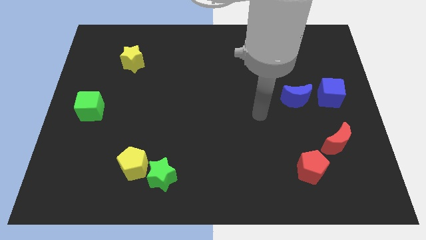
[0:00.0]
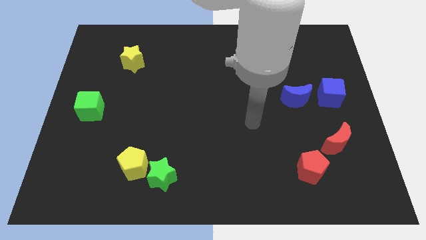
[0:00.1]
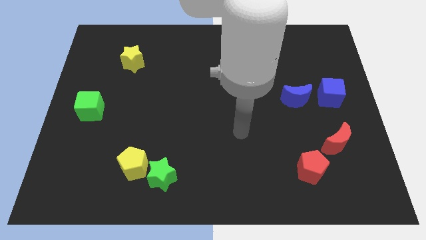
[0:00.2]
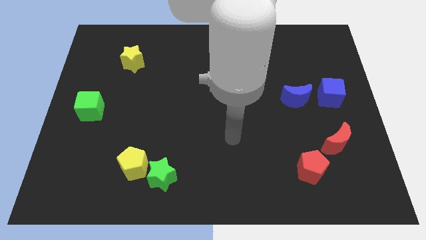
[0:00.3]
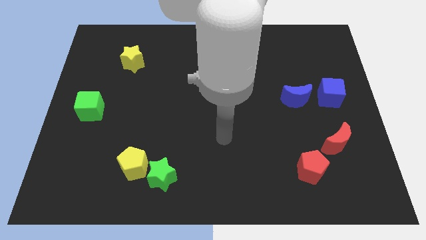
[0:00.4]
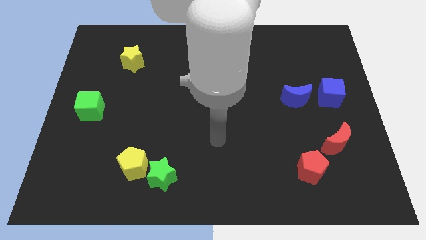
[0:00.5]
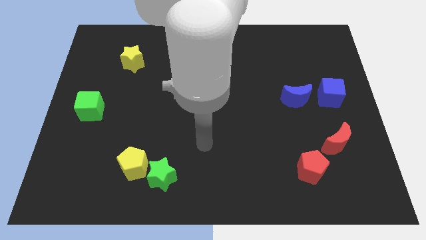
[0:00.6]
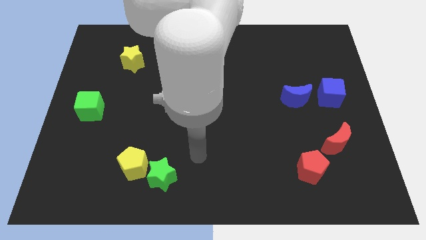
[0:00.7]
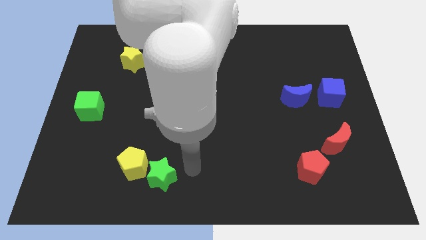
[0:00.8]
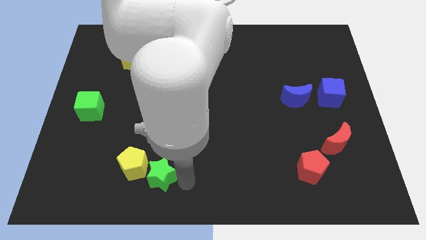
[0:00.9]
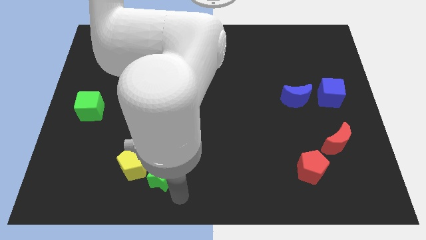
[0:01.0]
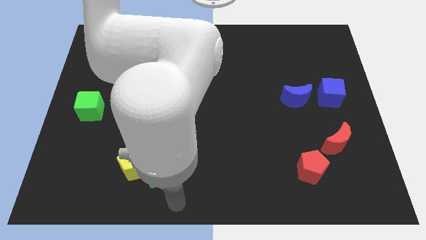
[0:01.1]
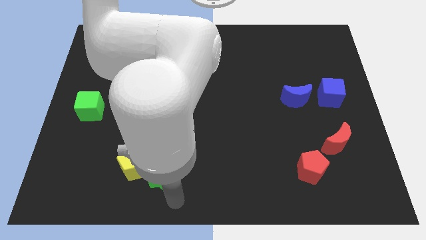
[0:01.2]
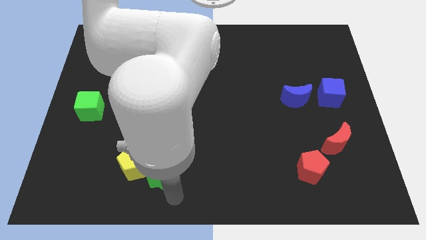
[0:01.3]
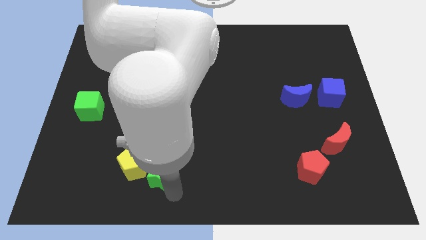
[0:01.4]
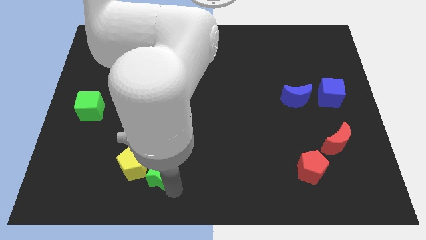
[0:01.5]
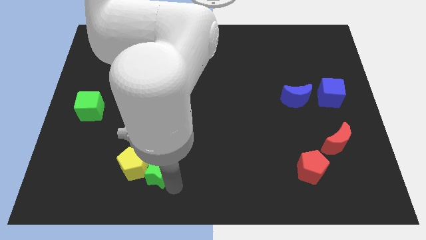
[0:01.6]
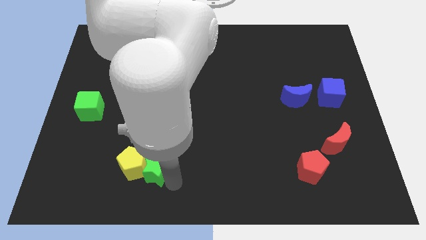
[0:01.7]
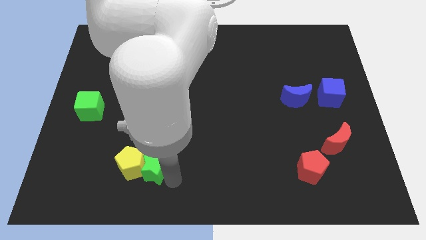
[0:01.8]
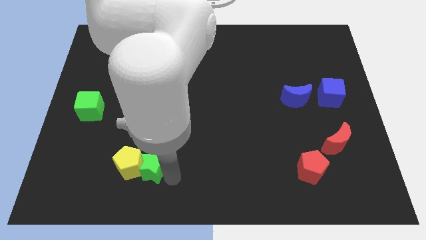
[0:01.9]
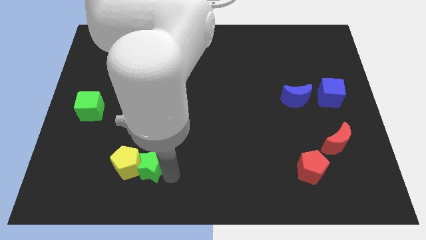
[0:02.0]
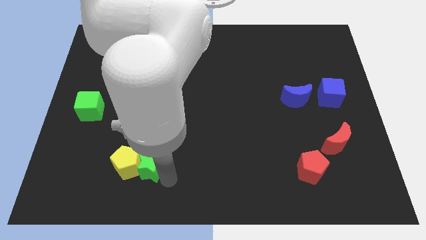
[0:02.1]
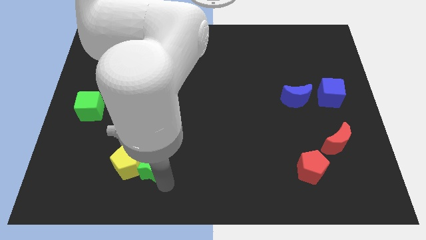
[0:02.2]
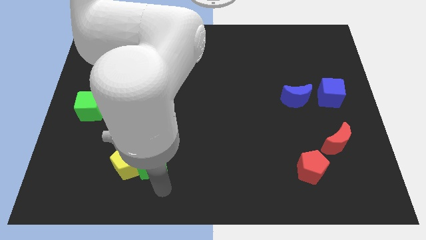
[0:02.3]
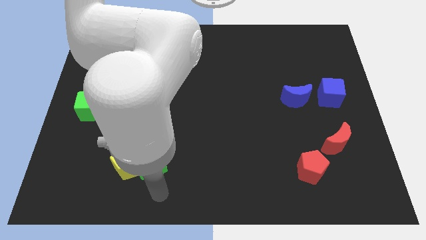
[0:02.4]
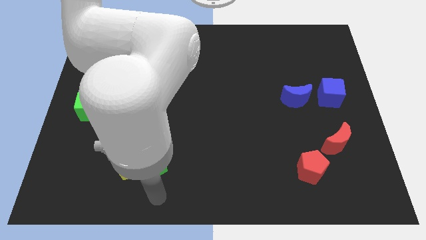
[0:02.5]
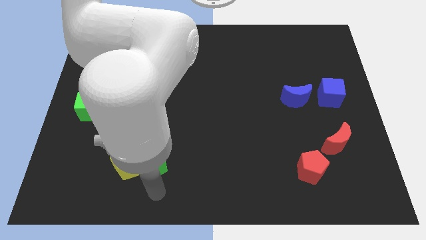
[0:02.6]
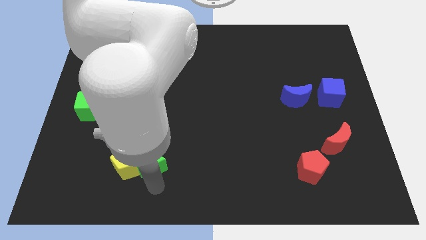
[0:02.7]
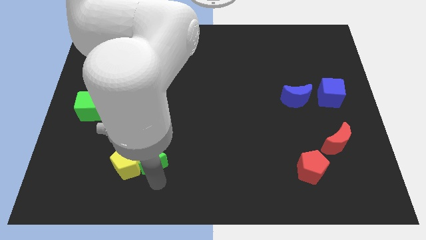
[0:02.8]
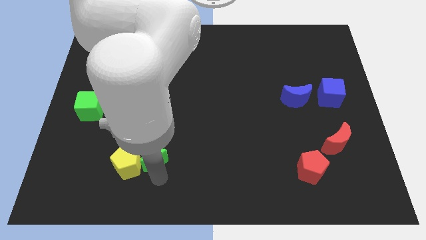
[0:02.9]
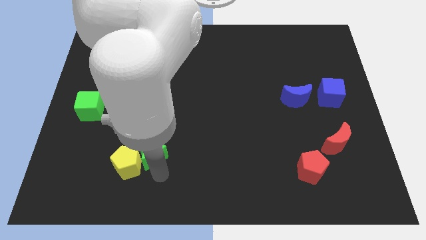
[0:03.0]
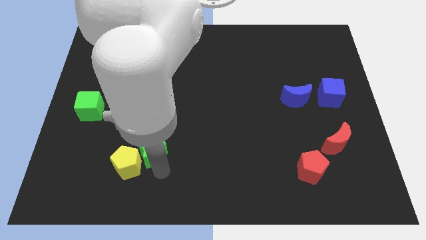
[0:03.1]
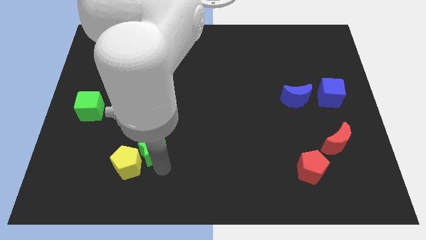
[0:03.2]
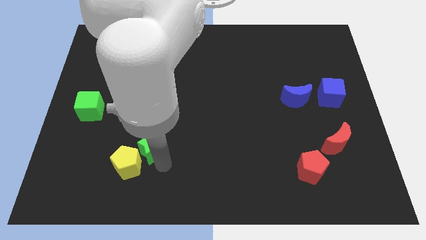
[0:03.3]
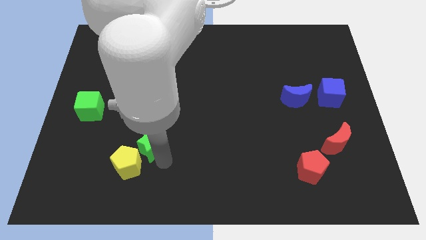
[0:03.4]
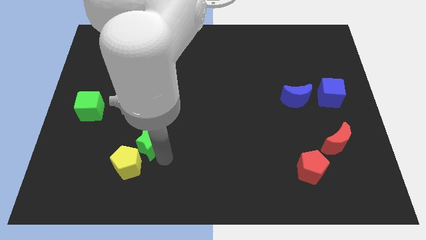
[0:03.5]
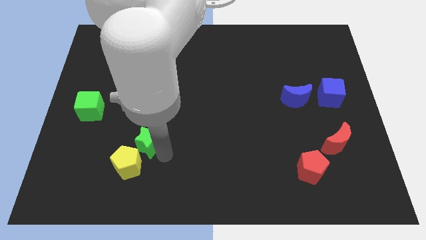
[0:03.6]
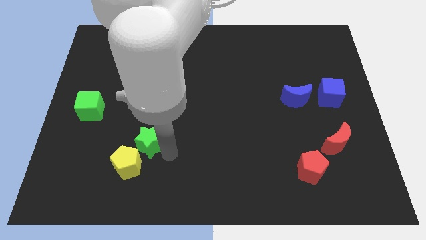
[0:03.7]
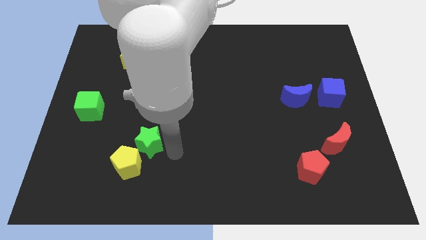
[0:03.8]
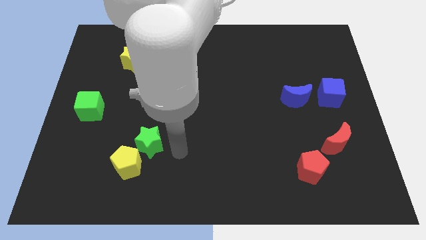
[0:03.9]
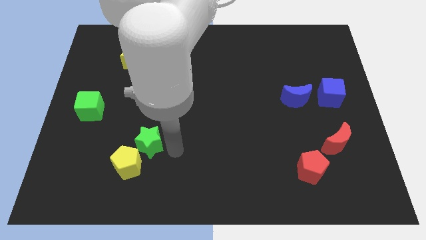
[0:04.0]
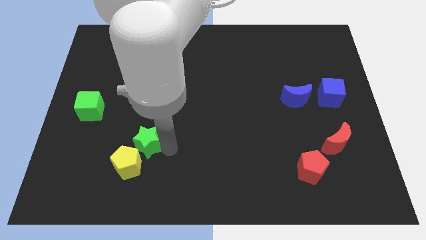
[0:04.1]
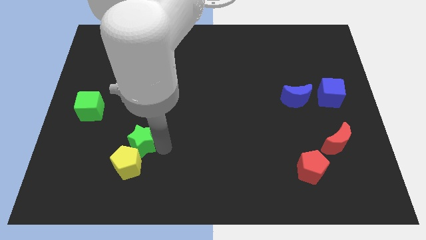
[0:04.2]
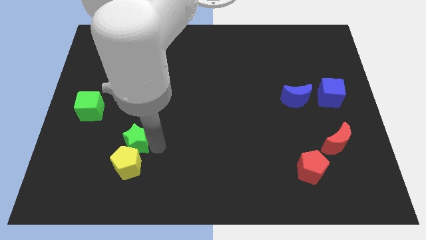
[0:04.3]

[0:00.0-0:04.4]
put the green star diagonally up and to the left of the yellow pentagon

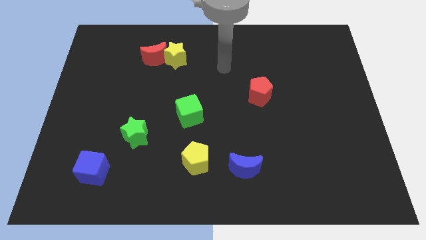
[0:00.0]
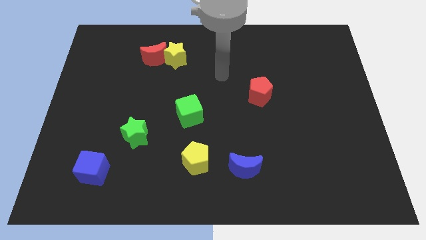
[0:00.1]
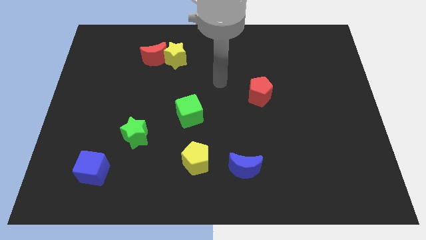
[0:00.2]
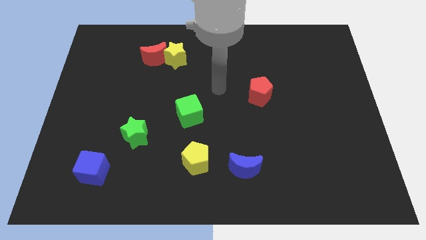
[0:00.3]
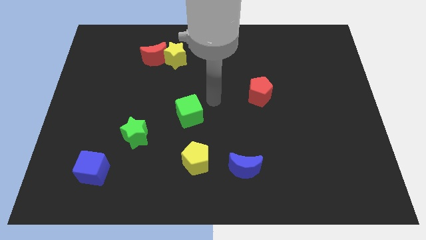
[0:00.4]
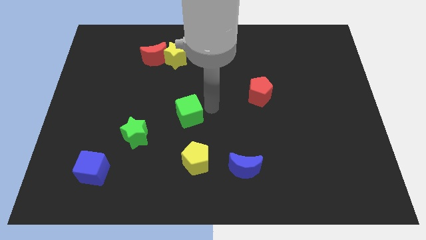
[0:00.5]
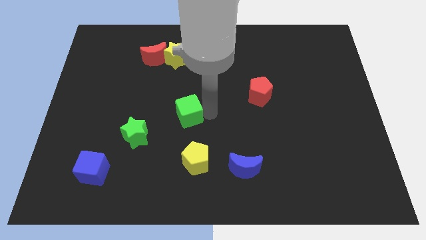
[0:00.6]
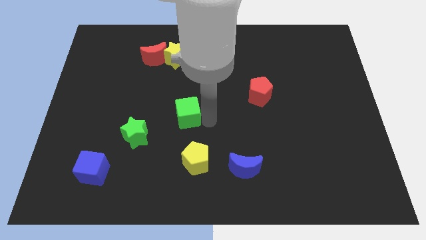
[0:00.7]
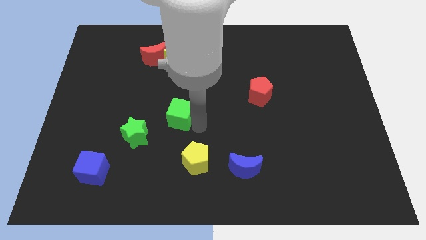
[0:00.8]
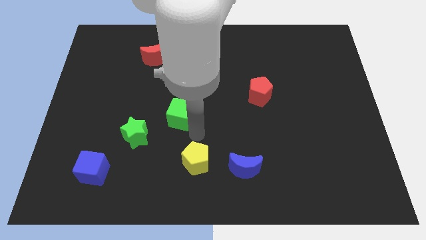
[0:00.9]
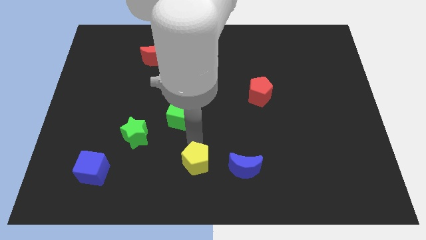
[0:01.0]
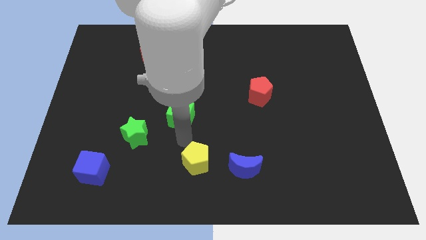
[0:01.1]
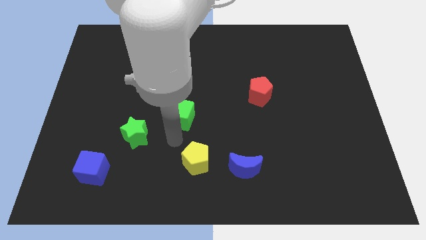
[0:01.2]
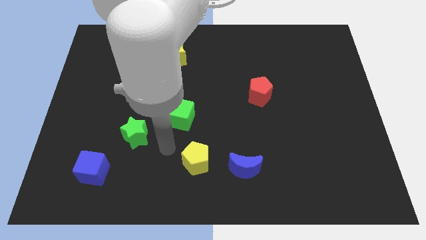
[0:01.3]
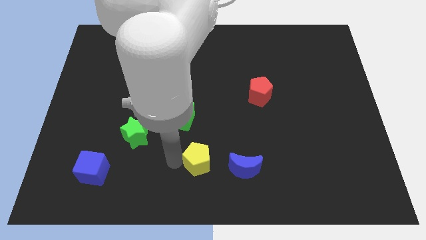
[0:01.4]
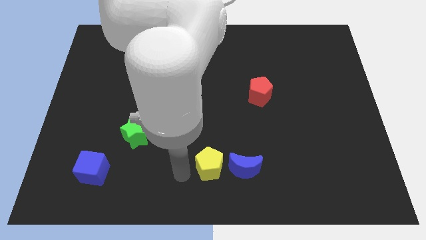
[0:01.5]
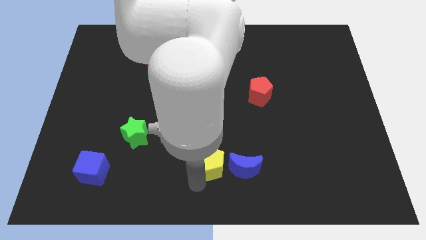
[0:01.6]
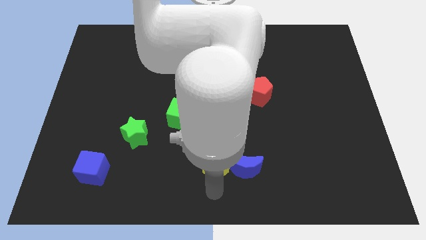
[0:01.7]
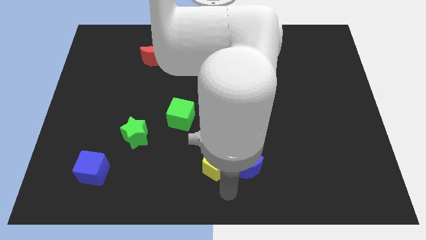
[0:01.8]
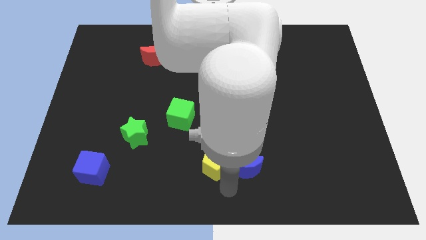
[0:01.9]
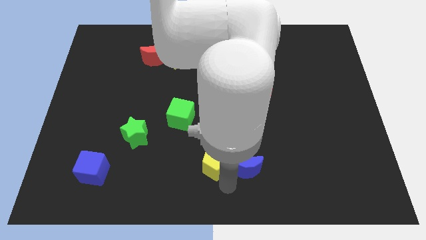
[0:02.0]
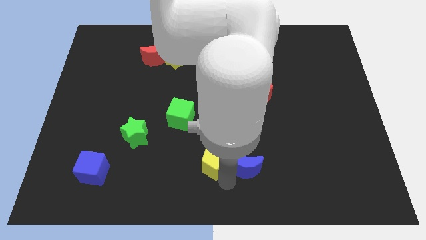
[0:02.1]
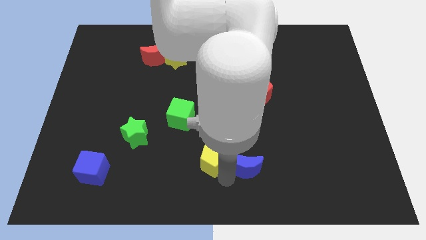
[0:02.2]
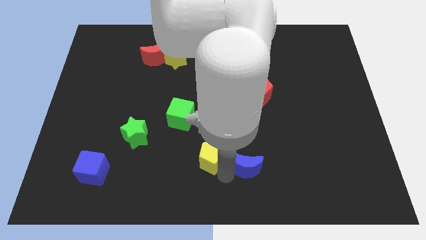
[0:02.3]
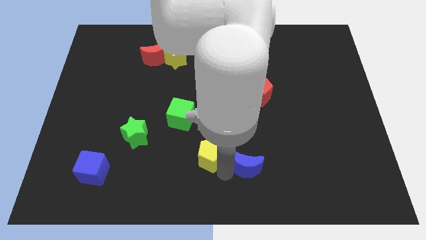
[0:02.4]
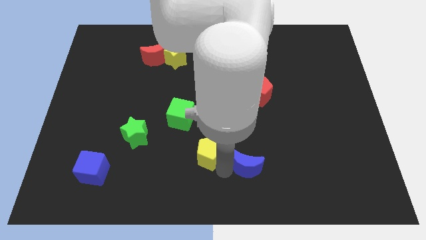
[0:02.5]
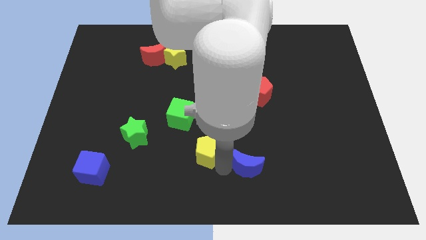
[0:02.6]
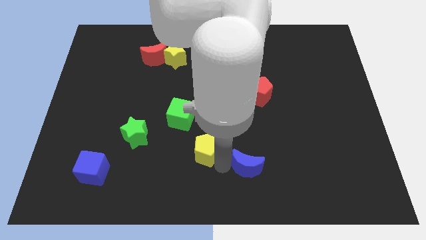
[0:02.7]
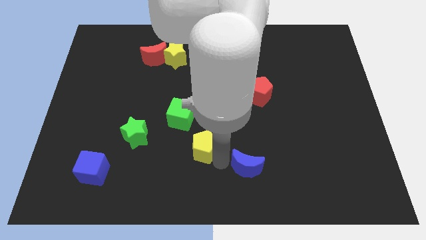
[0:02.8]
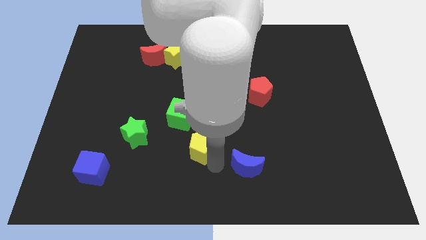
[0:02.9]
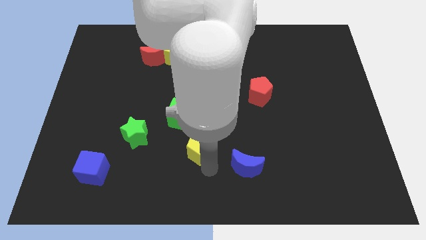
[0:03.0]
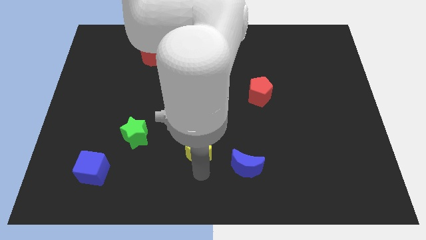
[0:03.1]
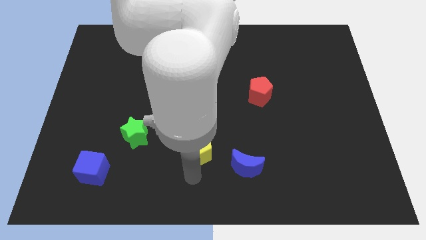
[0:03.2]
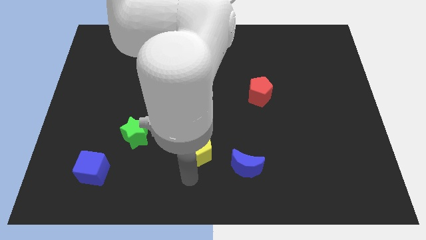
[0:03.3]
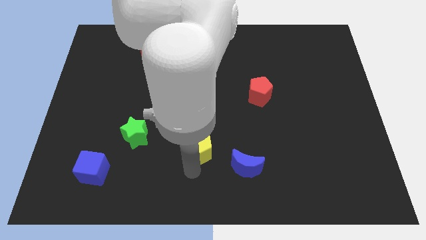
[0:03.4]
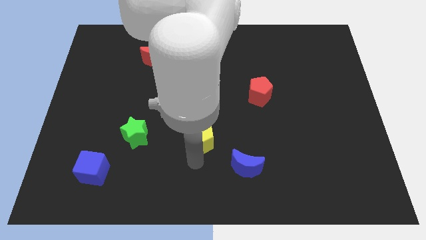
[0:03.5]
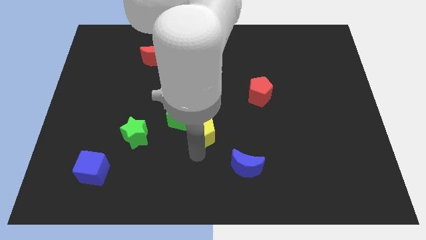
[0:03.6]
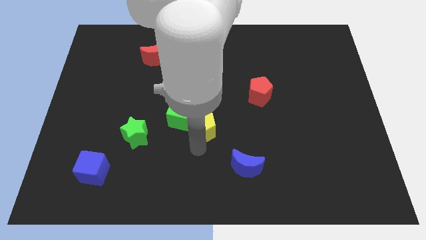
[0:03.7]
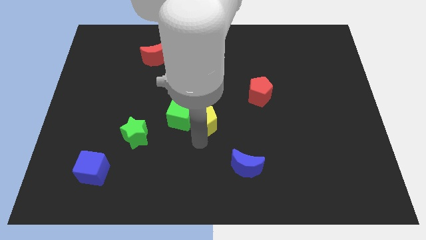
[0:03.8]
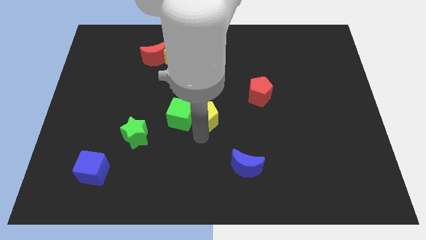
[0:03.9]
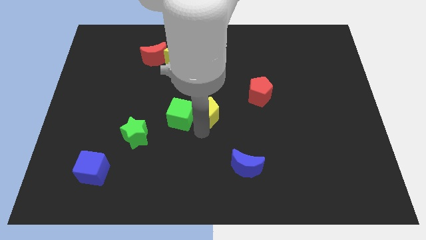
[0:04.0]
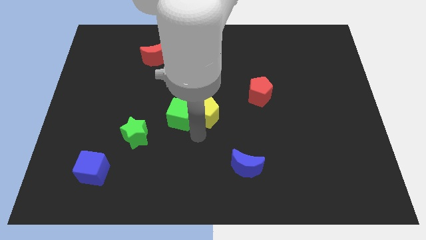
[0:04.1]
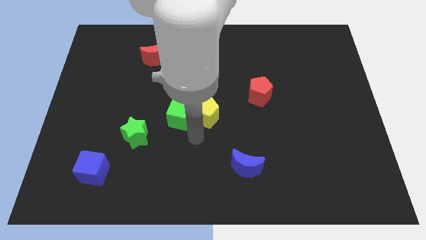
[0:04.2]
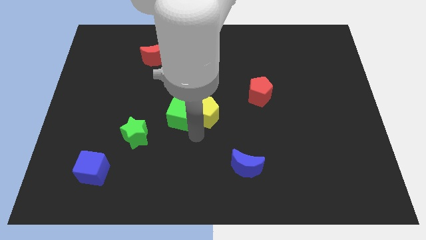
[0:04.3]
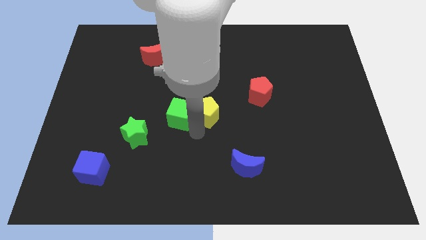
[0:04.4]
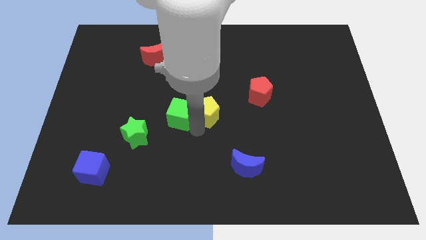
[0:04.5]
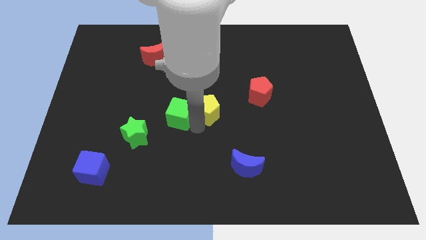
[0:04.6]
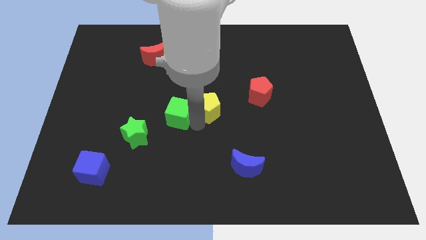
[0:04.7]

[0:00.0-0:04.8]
put the yellow pentagon just left of the red pentagon
